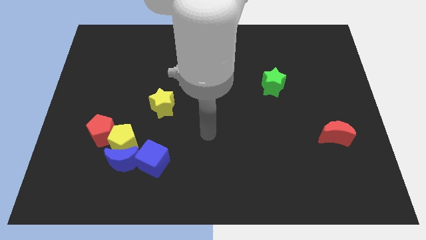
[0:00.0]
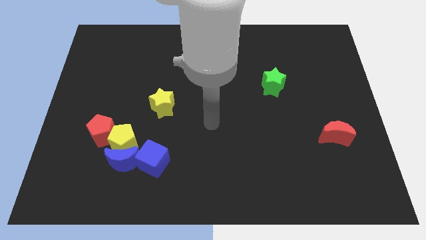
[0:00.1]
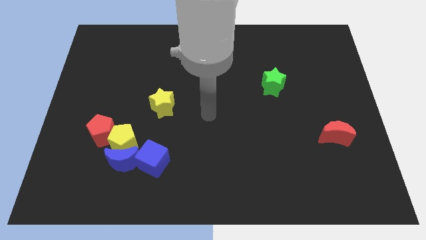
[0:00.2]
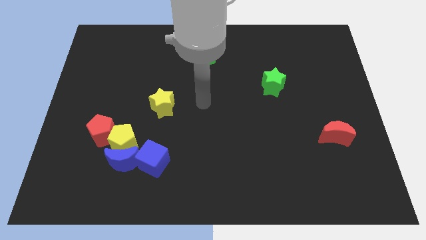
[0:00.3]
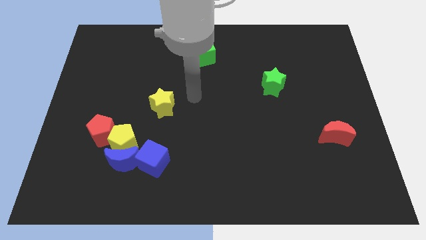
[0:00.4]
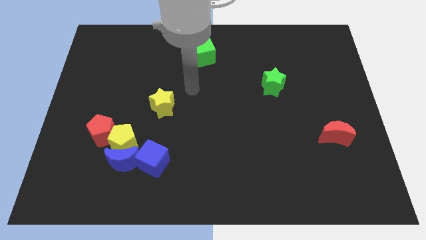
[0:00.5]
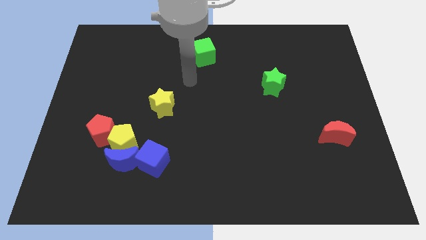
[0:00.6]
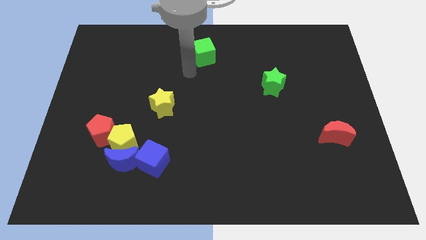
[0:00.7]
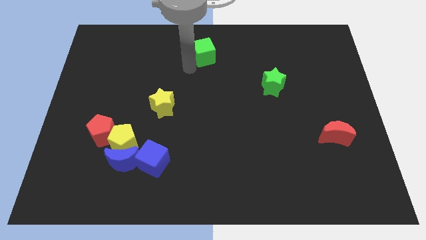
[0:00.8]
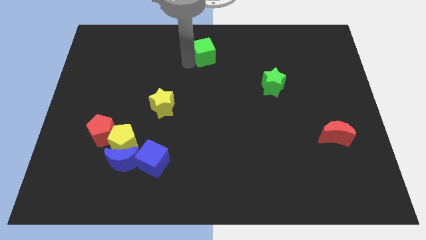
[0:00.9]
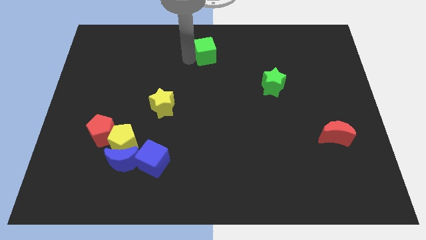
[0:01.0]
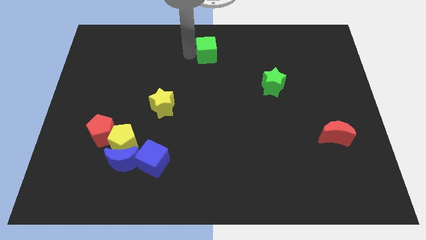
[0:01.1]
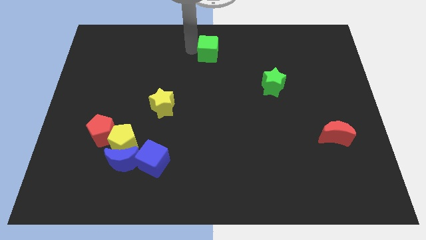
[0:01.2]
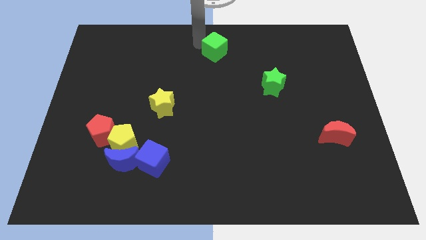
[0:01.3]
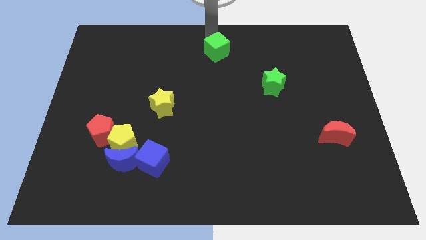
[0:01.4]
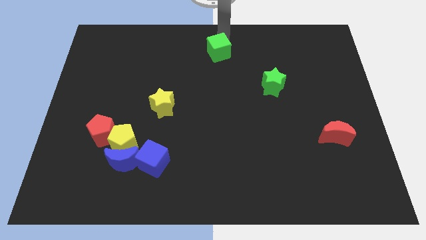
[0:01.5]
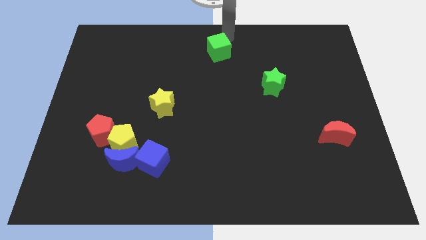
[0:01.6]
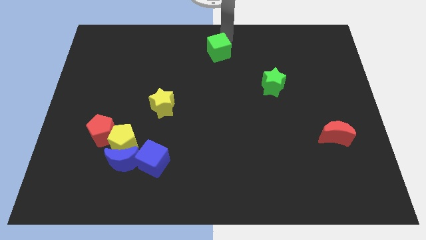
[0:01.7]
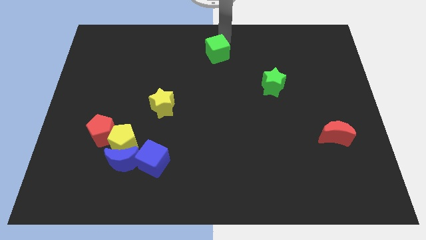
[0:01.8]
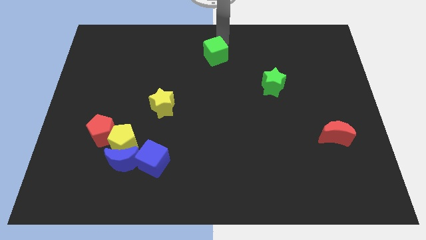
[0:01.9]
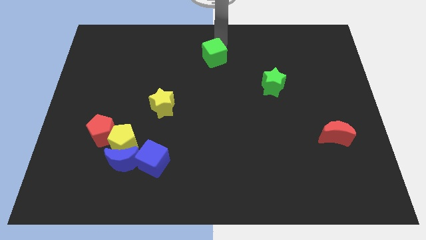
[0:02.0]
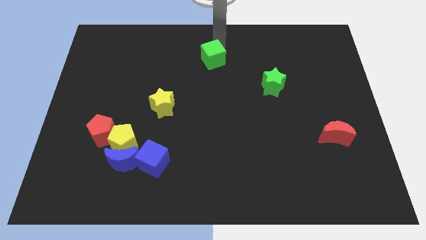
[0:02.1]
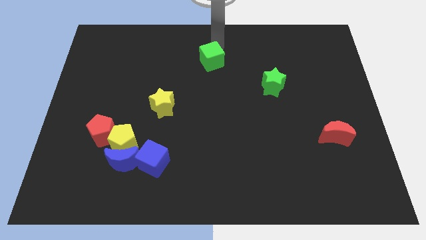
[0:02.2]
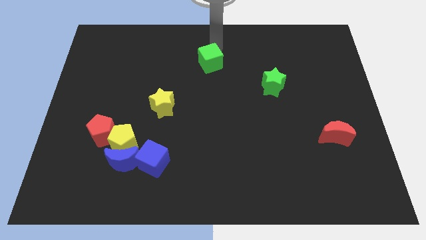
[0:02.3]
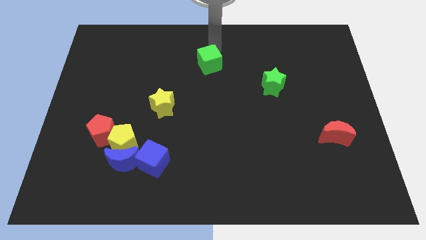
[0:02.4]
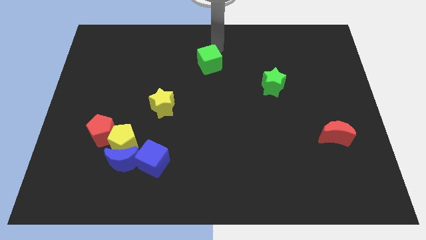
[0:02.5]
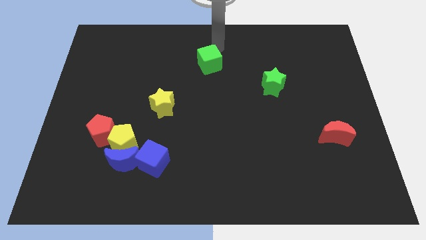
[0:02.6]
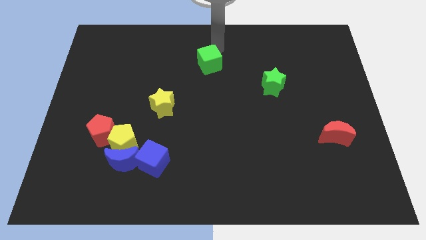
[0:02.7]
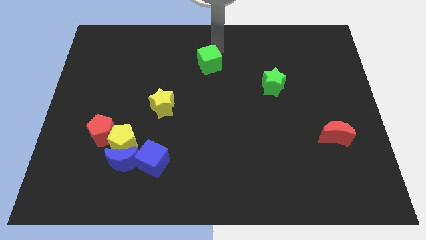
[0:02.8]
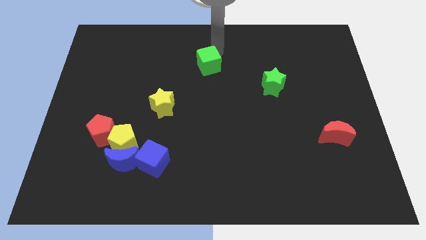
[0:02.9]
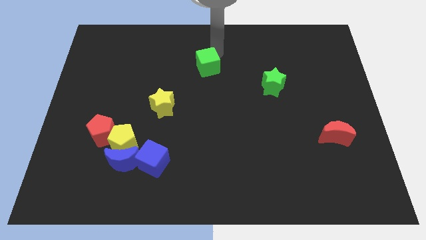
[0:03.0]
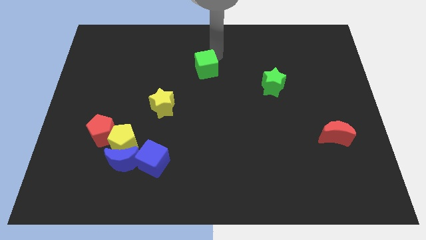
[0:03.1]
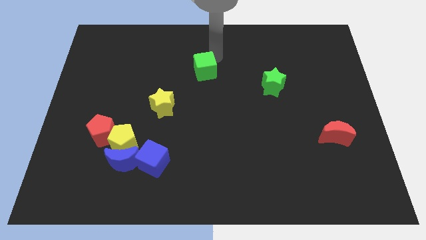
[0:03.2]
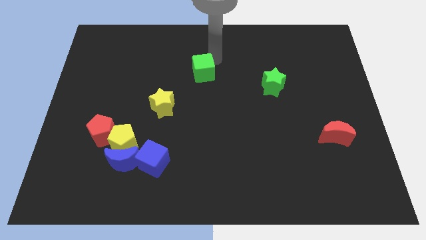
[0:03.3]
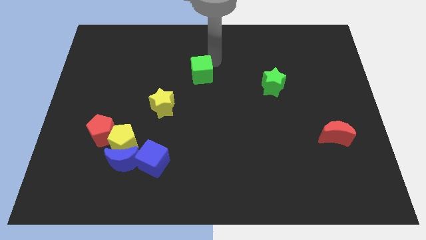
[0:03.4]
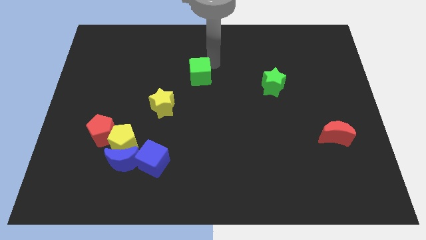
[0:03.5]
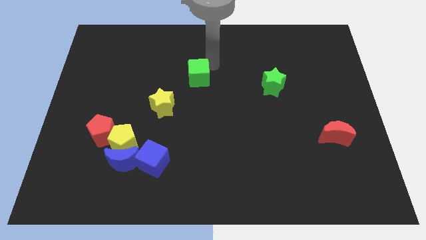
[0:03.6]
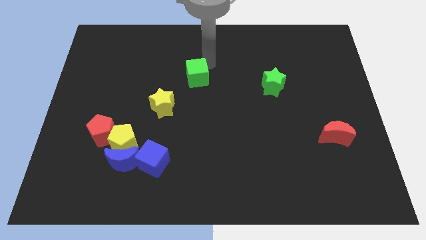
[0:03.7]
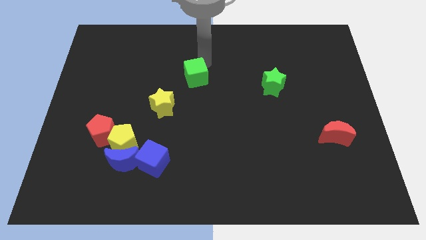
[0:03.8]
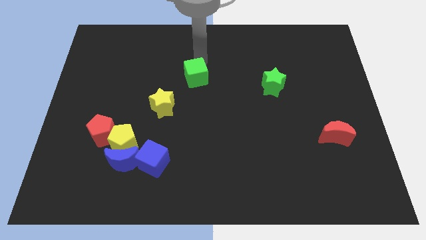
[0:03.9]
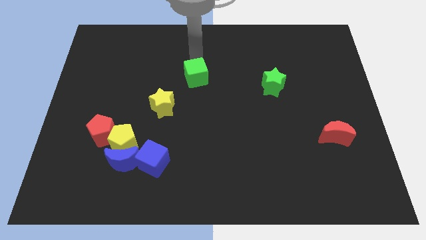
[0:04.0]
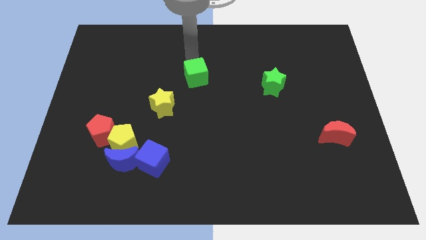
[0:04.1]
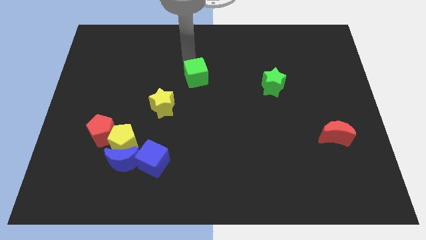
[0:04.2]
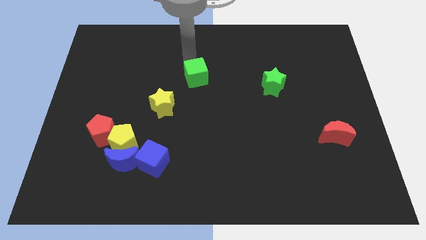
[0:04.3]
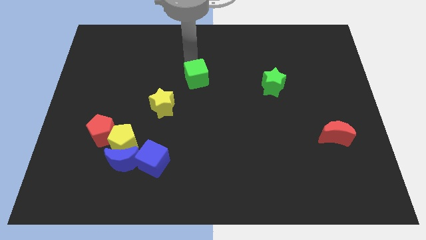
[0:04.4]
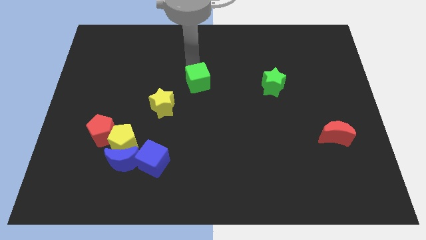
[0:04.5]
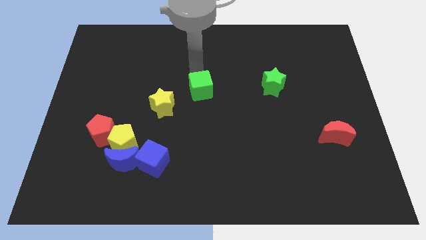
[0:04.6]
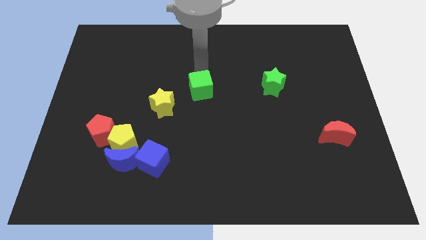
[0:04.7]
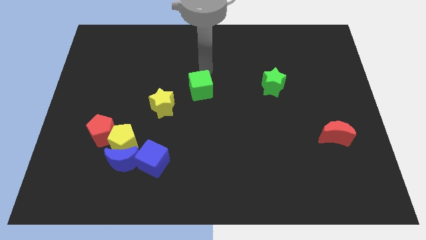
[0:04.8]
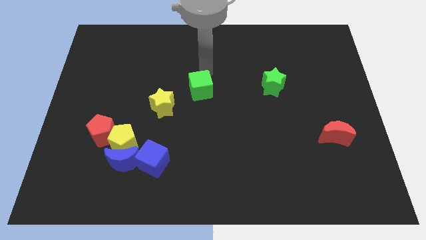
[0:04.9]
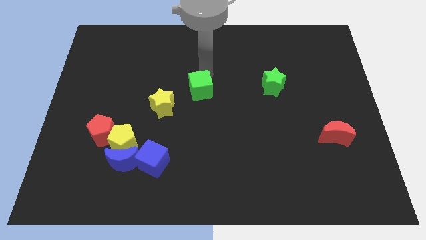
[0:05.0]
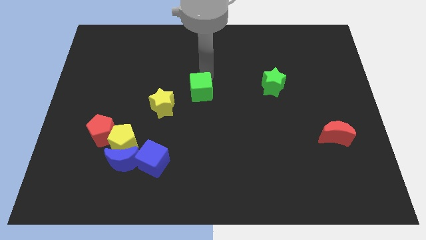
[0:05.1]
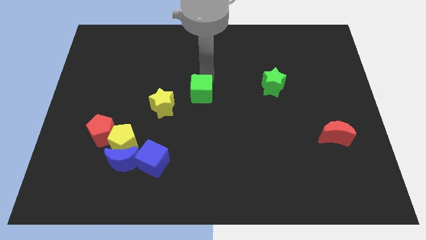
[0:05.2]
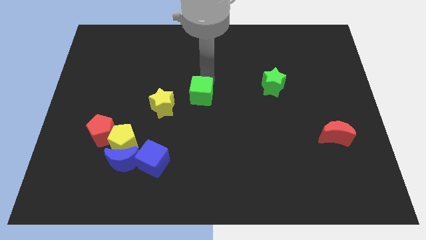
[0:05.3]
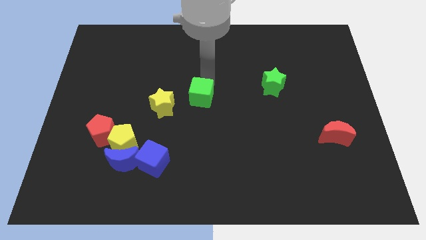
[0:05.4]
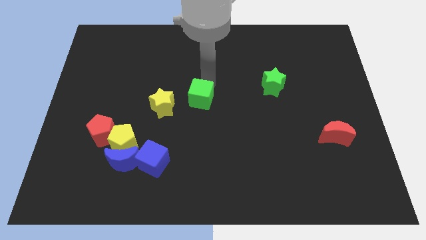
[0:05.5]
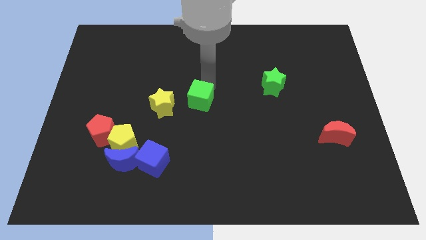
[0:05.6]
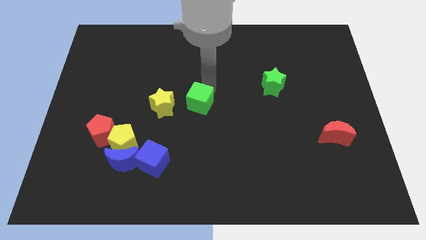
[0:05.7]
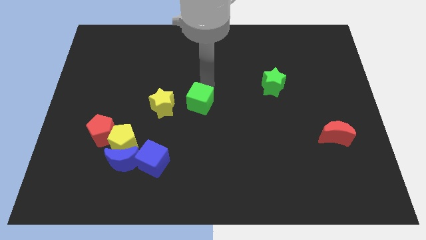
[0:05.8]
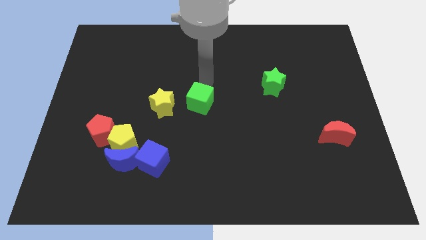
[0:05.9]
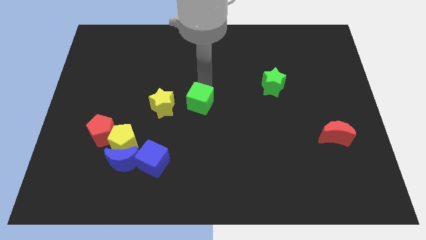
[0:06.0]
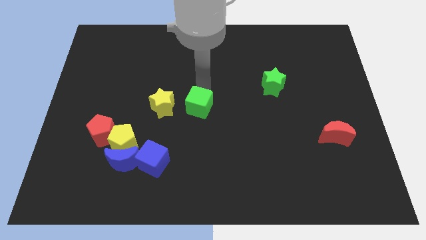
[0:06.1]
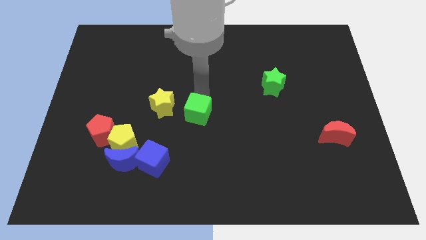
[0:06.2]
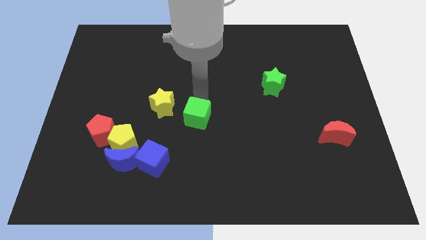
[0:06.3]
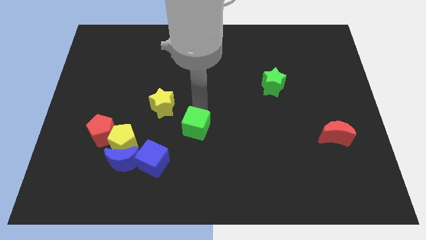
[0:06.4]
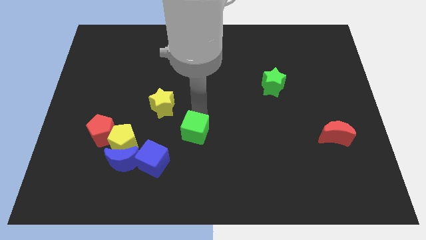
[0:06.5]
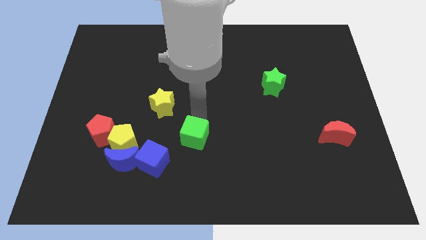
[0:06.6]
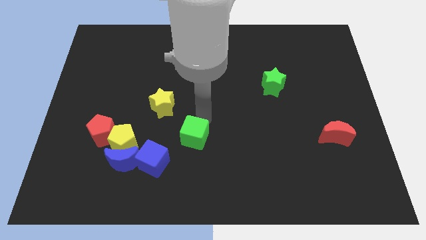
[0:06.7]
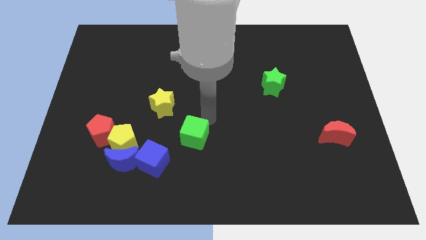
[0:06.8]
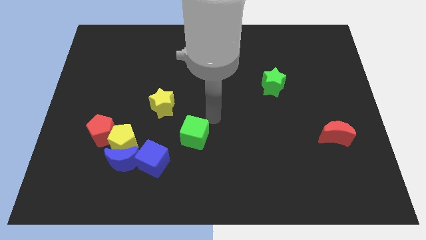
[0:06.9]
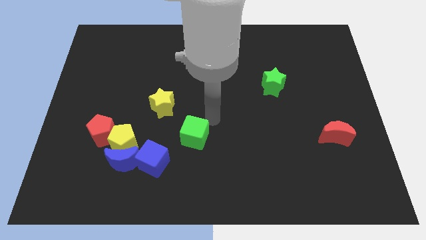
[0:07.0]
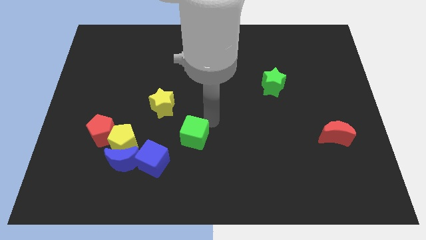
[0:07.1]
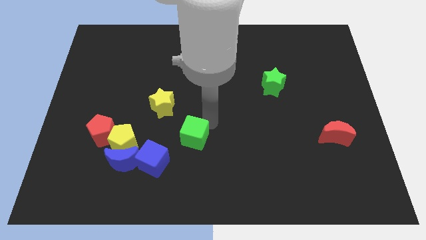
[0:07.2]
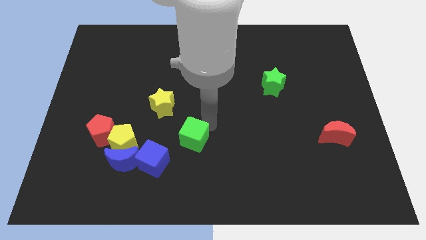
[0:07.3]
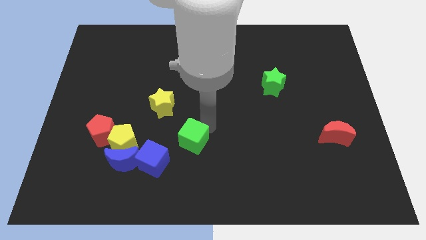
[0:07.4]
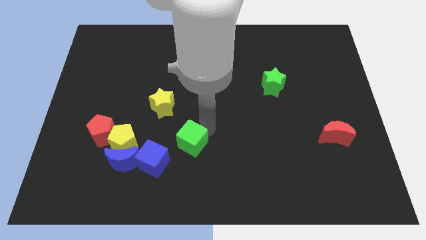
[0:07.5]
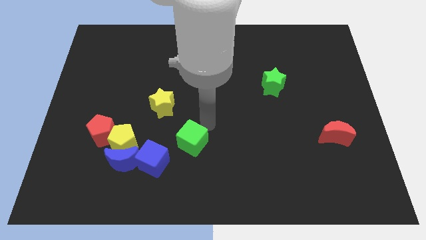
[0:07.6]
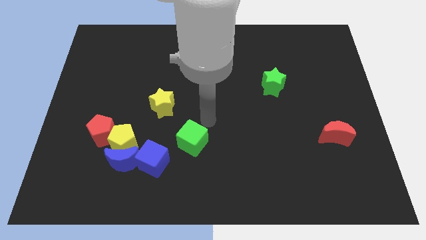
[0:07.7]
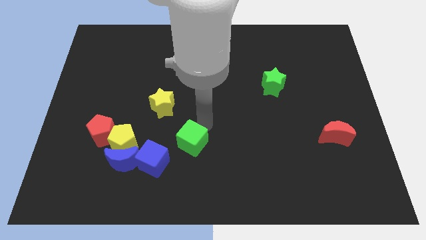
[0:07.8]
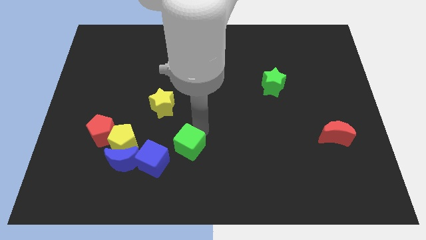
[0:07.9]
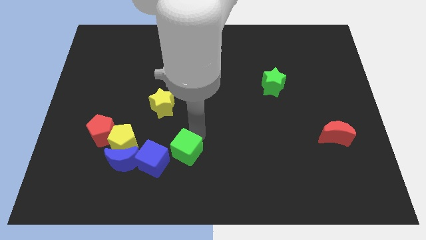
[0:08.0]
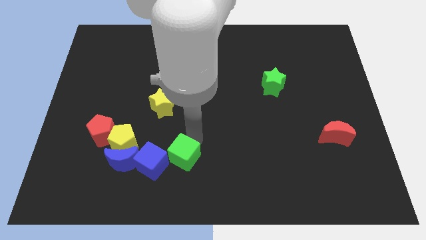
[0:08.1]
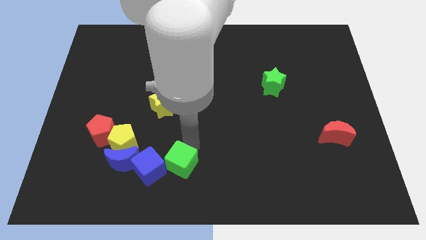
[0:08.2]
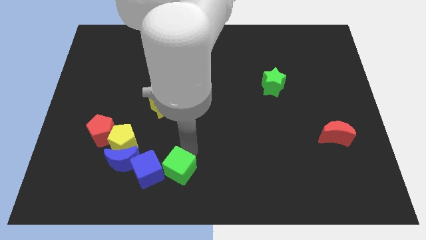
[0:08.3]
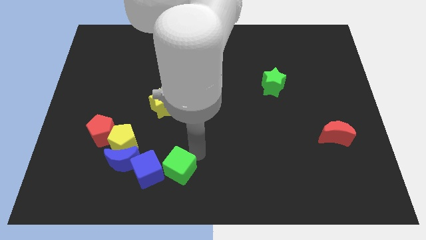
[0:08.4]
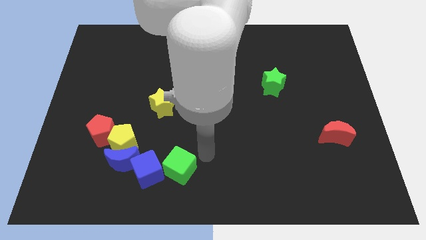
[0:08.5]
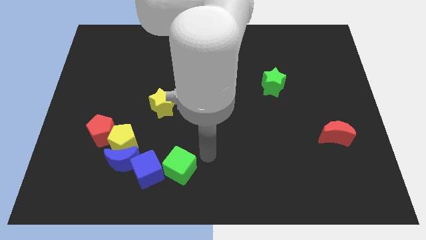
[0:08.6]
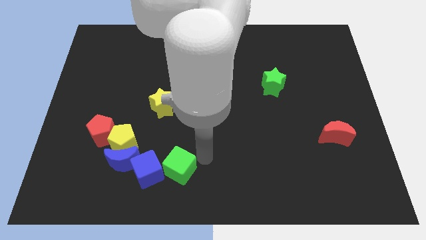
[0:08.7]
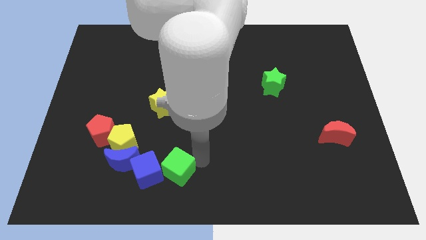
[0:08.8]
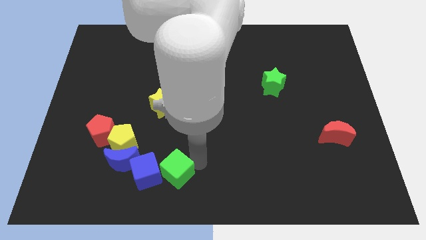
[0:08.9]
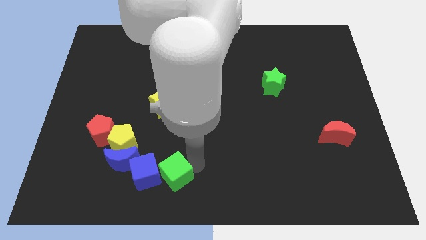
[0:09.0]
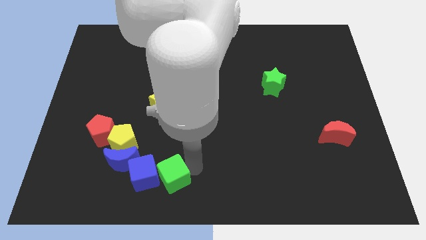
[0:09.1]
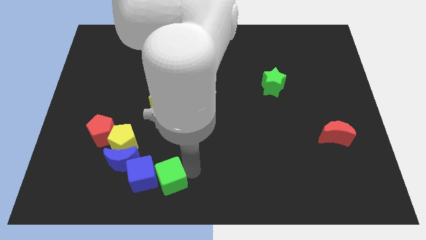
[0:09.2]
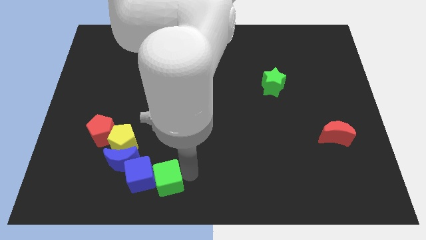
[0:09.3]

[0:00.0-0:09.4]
slide the green cube diagonally down and to the right of the blue moon
